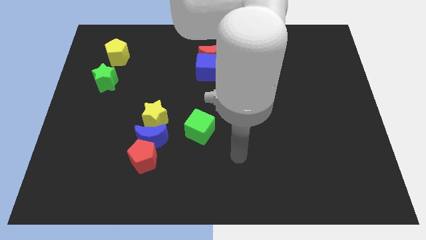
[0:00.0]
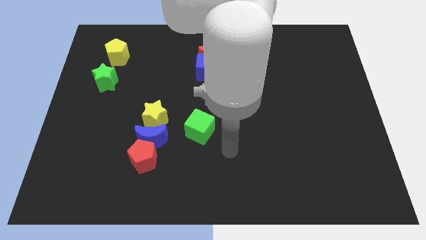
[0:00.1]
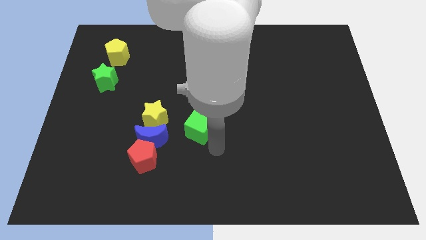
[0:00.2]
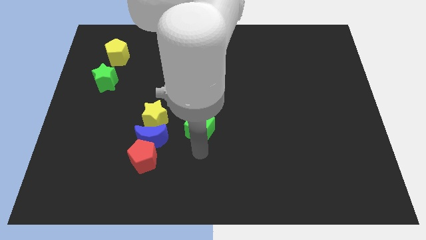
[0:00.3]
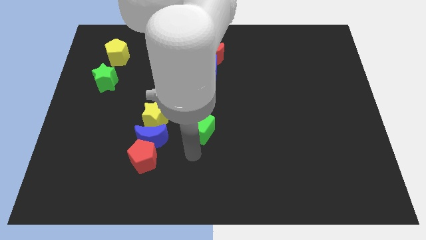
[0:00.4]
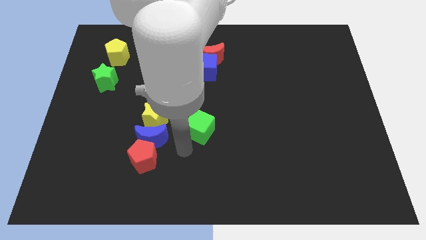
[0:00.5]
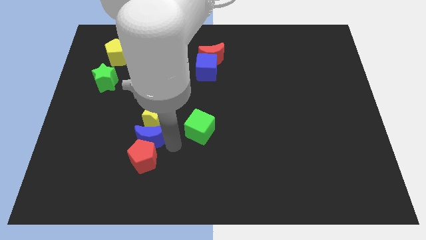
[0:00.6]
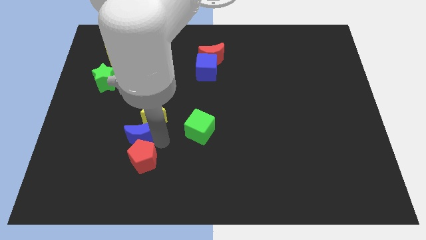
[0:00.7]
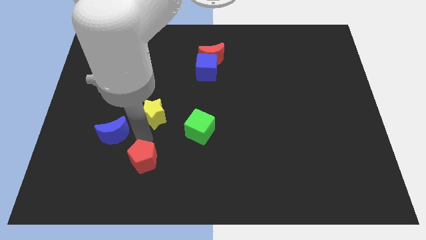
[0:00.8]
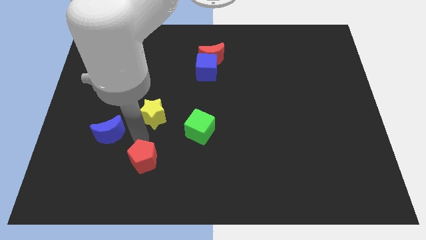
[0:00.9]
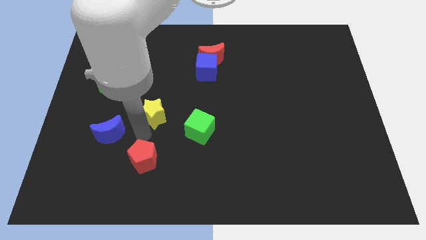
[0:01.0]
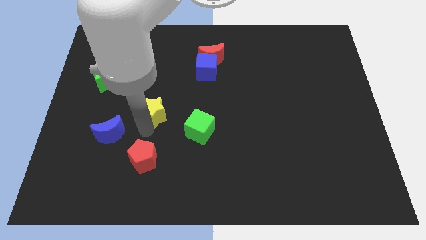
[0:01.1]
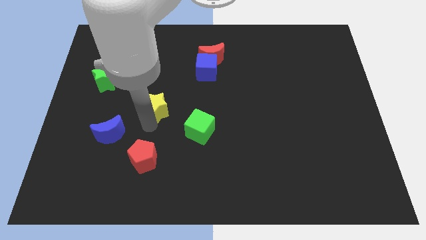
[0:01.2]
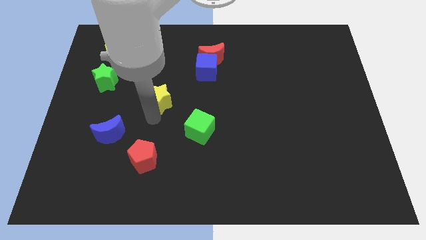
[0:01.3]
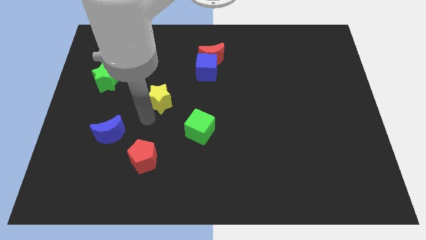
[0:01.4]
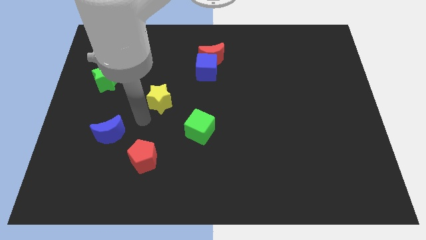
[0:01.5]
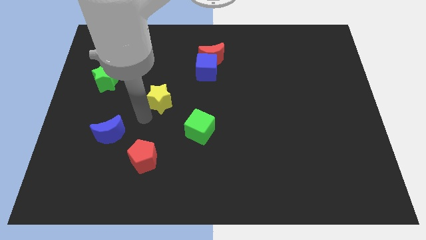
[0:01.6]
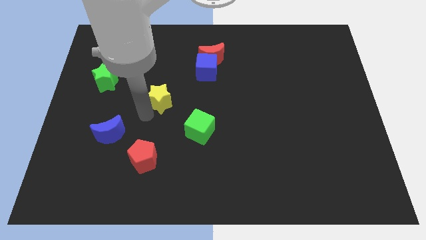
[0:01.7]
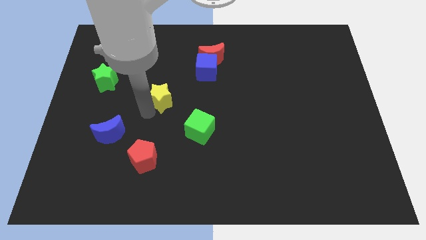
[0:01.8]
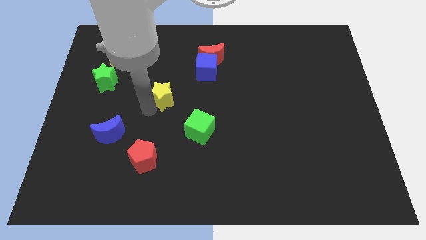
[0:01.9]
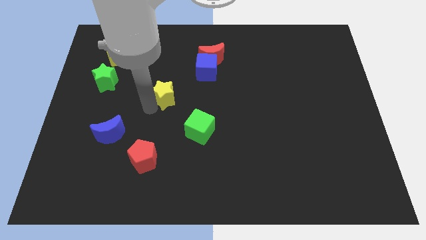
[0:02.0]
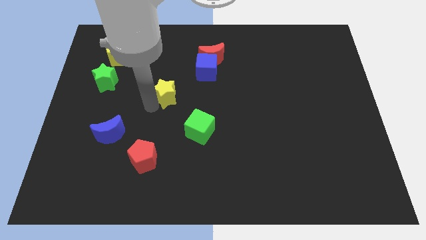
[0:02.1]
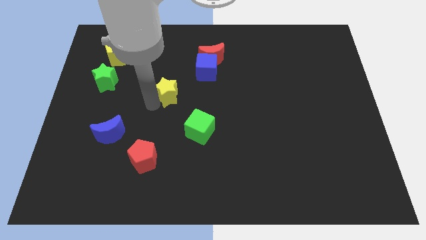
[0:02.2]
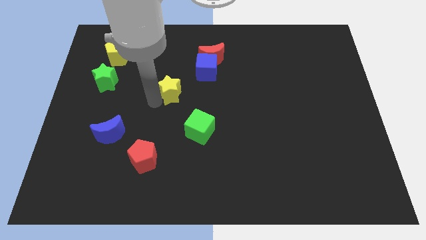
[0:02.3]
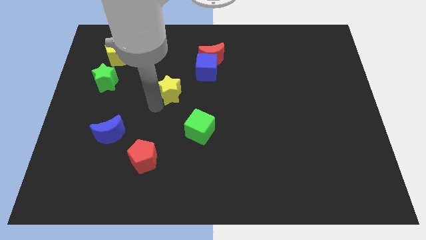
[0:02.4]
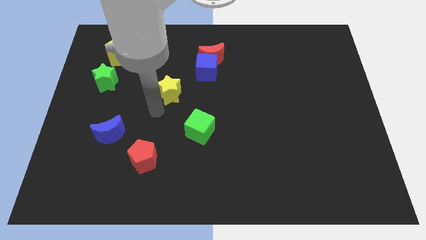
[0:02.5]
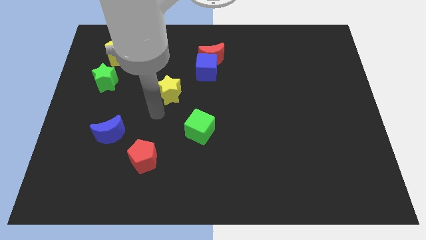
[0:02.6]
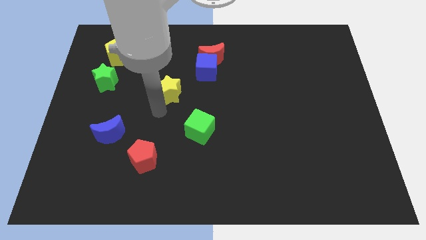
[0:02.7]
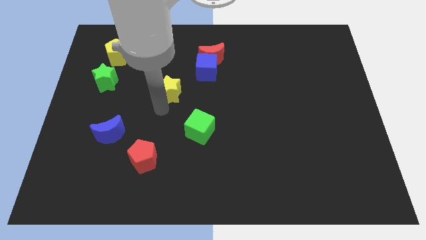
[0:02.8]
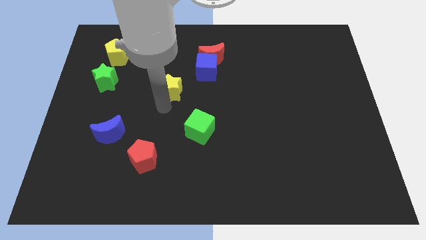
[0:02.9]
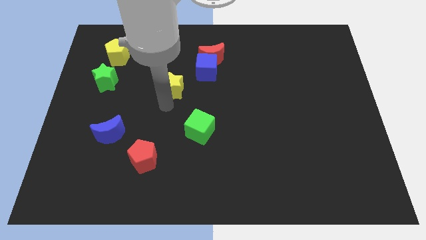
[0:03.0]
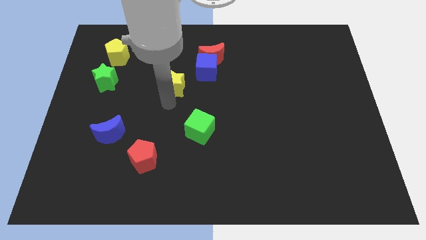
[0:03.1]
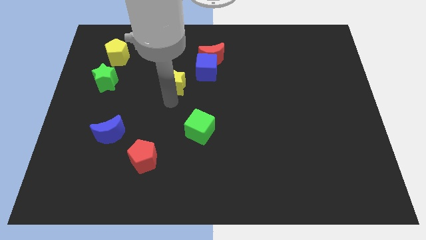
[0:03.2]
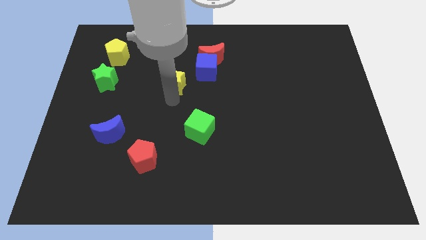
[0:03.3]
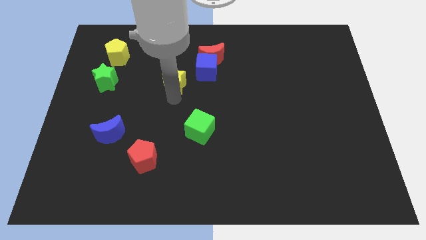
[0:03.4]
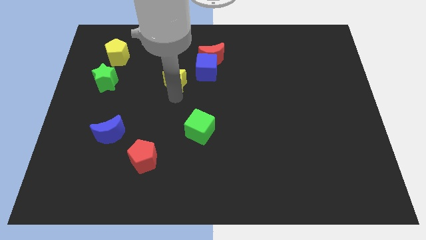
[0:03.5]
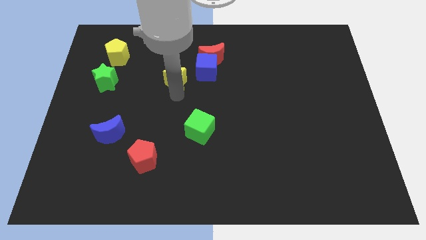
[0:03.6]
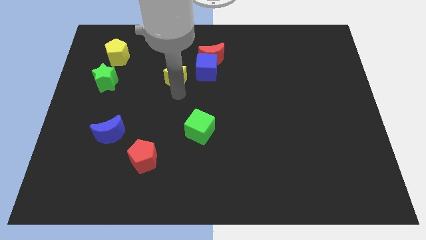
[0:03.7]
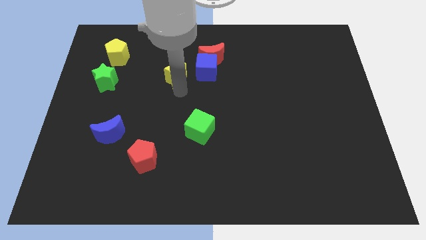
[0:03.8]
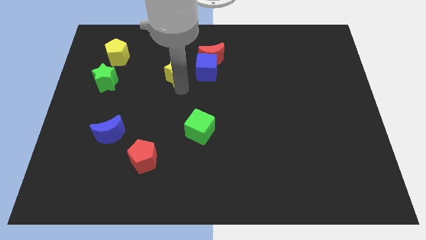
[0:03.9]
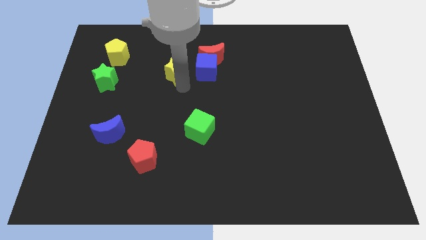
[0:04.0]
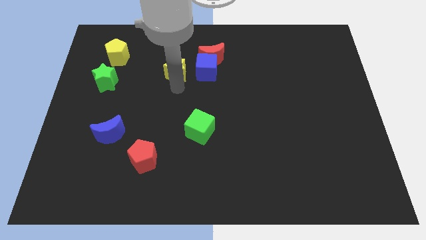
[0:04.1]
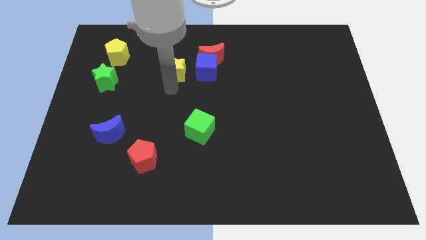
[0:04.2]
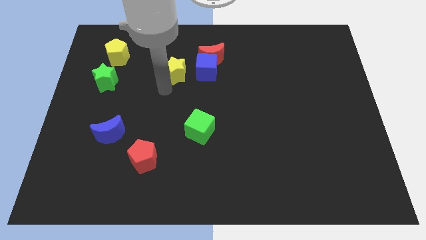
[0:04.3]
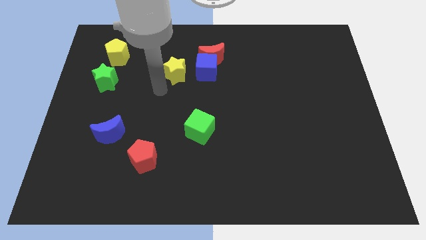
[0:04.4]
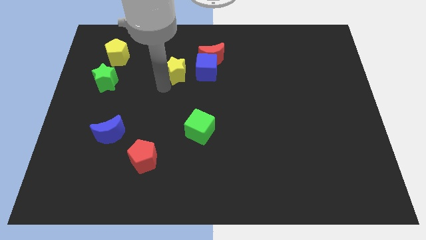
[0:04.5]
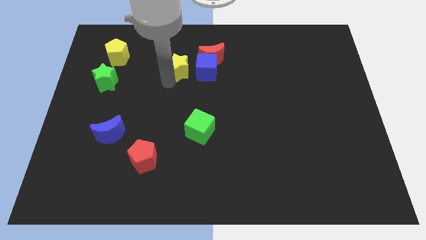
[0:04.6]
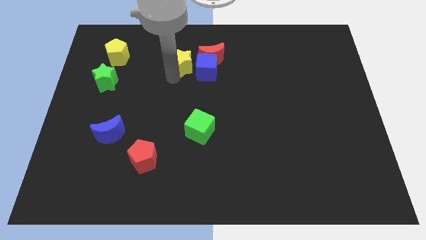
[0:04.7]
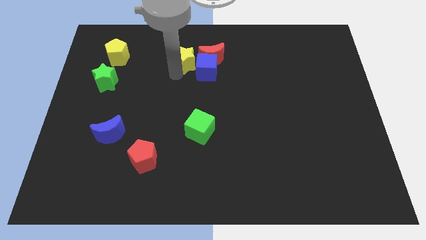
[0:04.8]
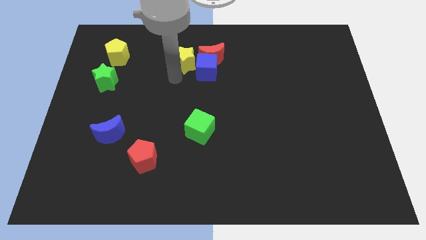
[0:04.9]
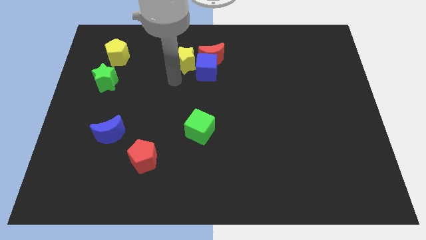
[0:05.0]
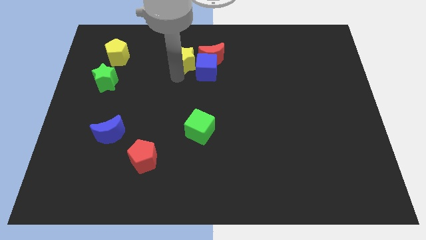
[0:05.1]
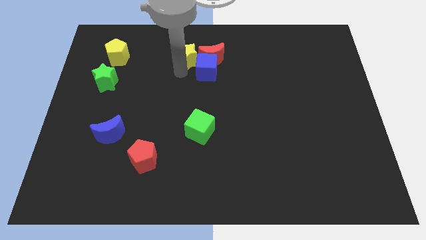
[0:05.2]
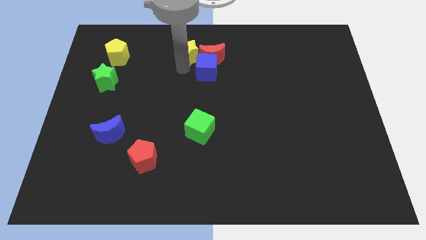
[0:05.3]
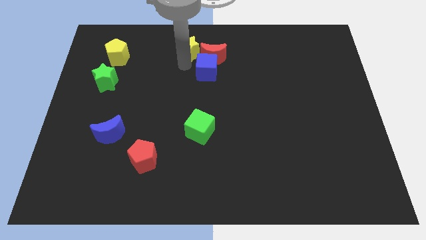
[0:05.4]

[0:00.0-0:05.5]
slide the yellow star to the towards your base

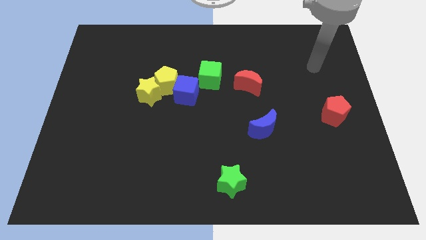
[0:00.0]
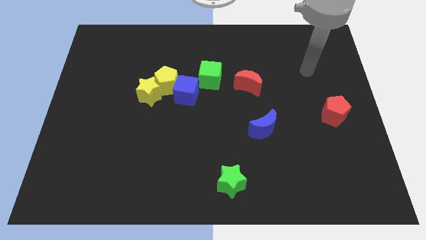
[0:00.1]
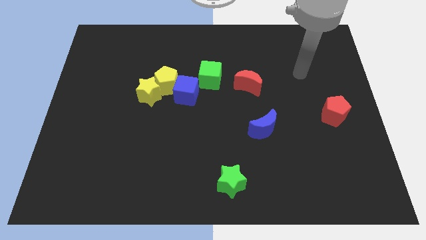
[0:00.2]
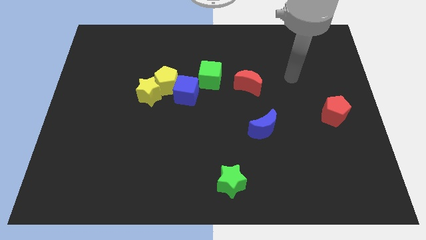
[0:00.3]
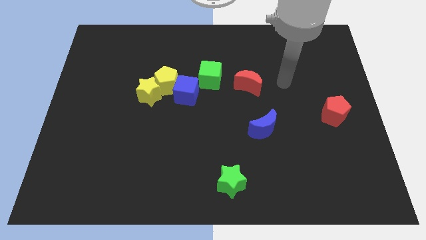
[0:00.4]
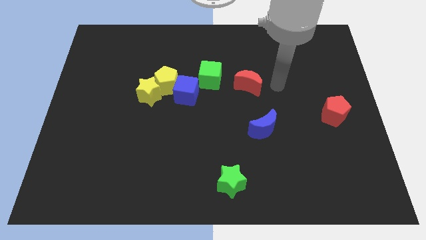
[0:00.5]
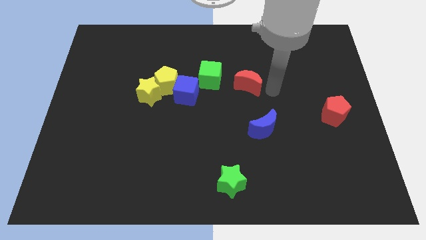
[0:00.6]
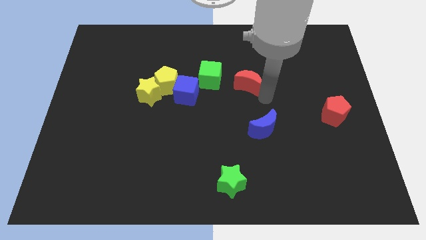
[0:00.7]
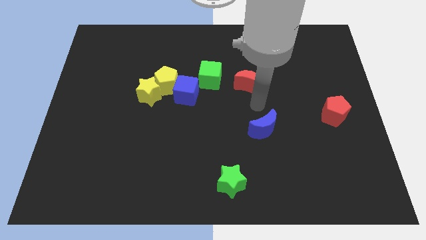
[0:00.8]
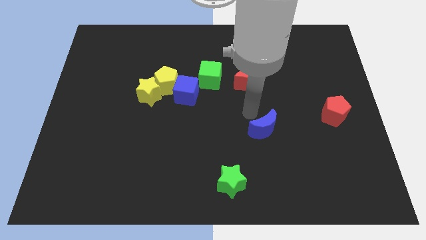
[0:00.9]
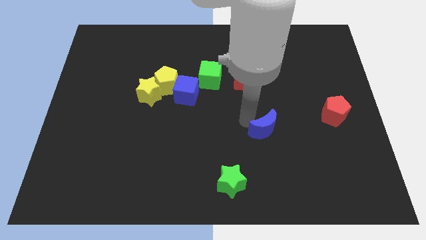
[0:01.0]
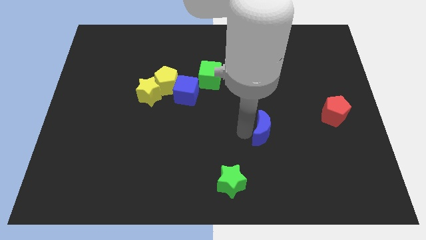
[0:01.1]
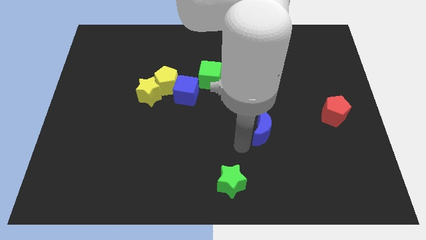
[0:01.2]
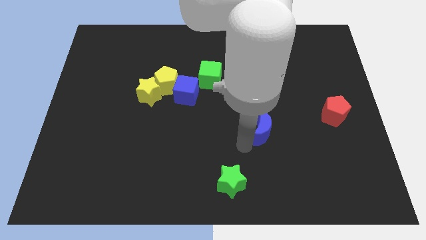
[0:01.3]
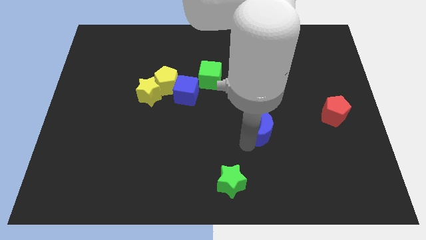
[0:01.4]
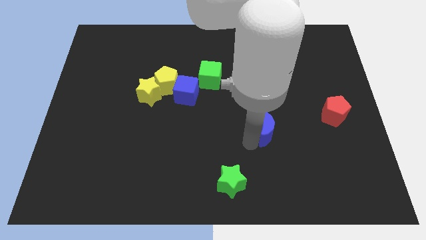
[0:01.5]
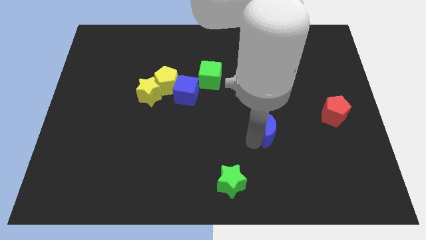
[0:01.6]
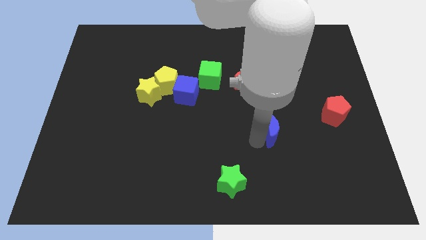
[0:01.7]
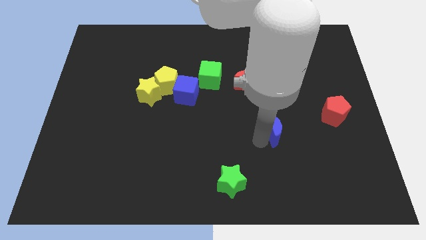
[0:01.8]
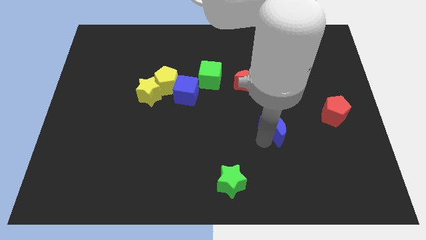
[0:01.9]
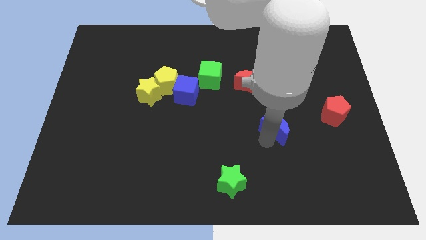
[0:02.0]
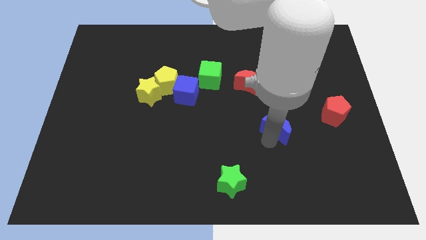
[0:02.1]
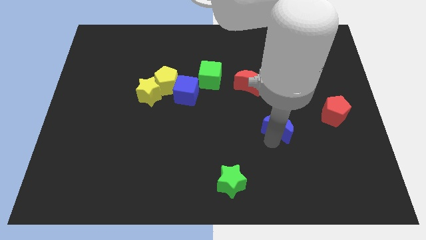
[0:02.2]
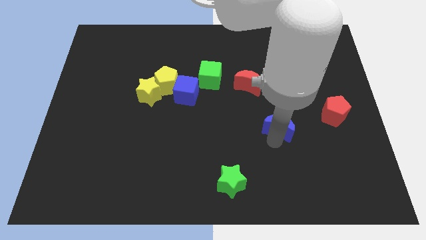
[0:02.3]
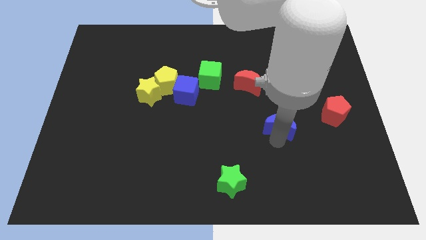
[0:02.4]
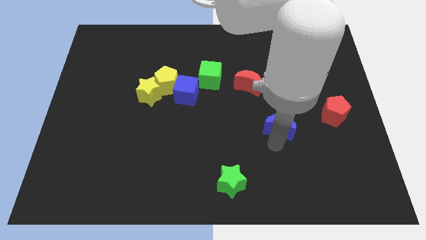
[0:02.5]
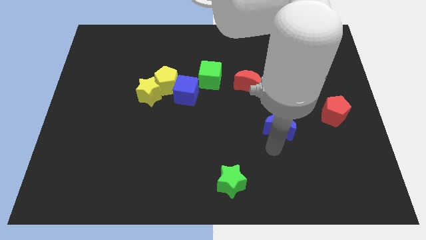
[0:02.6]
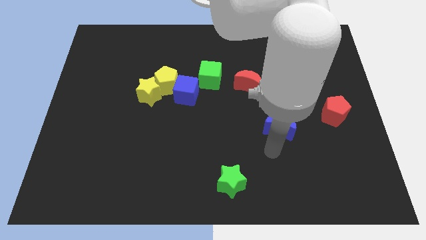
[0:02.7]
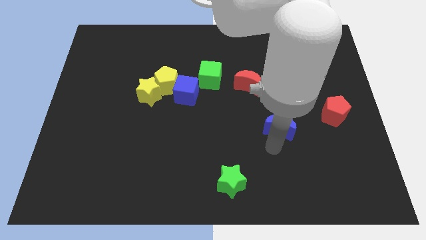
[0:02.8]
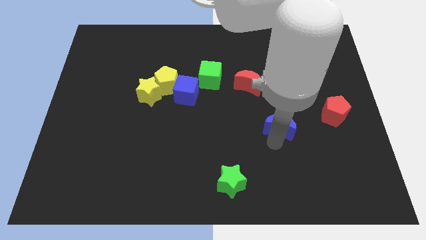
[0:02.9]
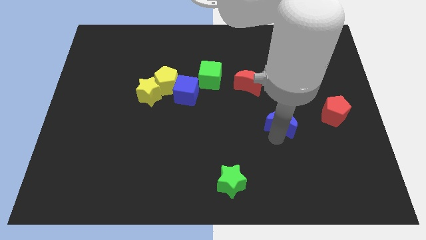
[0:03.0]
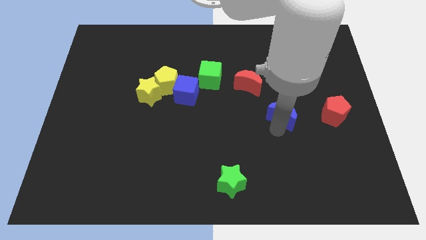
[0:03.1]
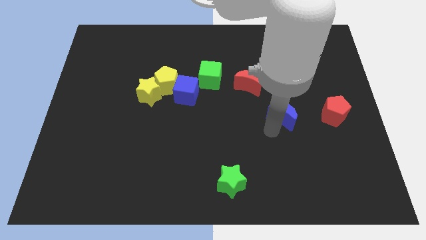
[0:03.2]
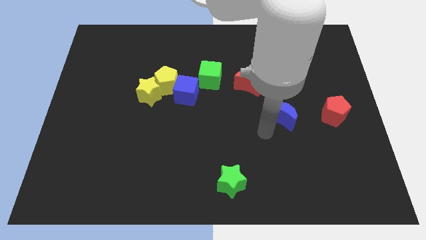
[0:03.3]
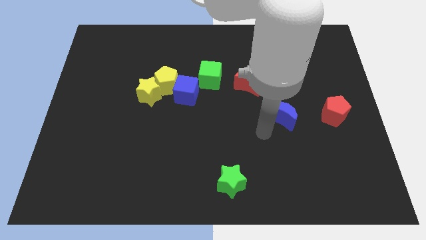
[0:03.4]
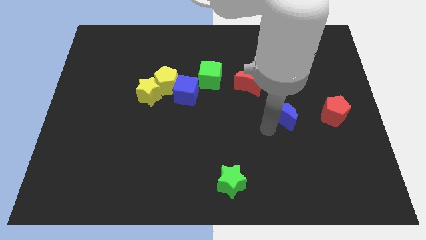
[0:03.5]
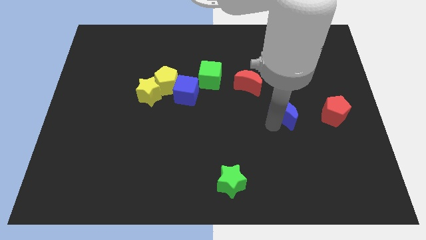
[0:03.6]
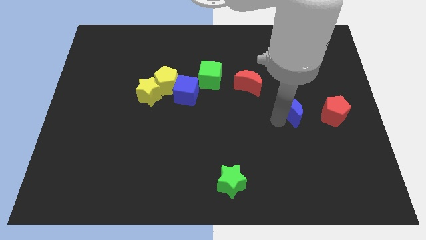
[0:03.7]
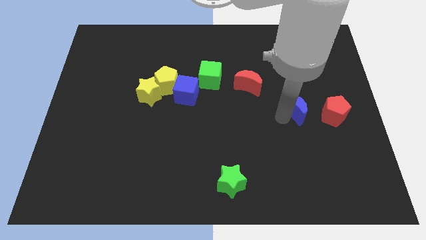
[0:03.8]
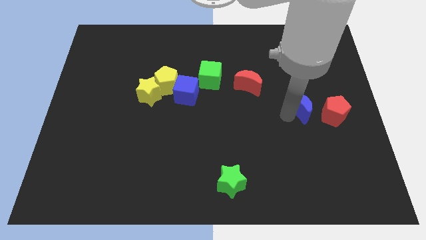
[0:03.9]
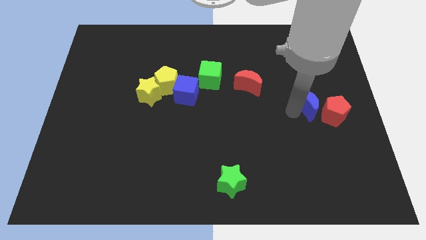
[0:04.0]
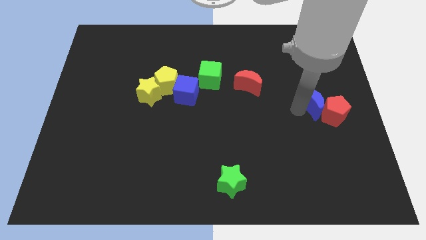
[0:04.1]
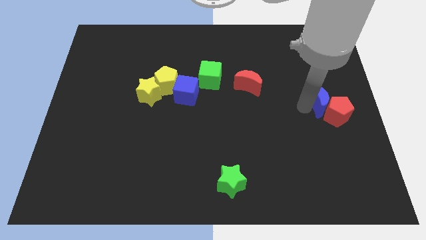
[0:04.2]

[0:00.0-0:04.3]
move the blue moon to the right side of the board
